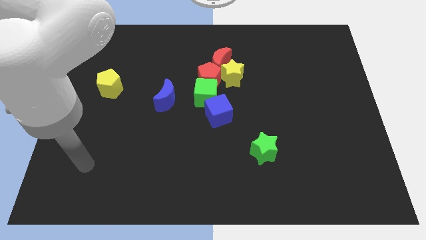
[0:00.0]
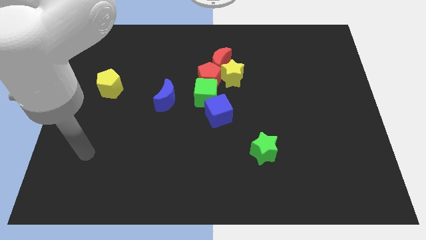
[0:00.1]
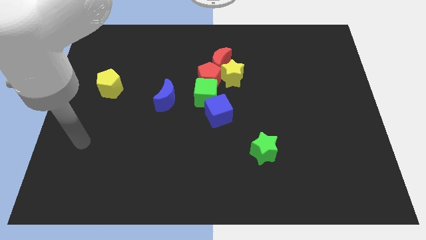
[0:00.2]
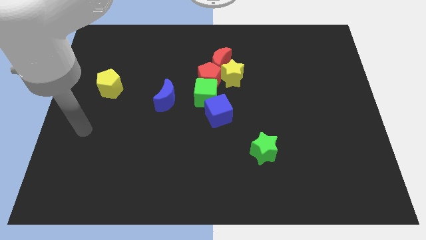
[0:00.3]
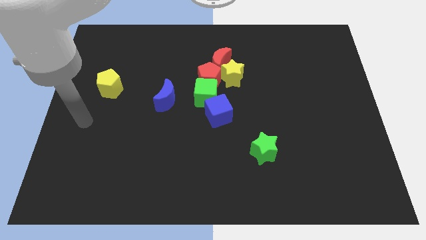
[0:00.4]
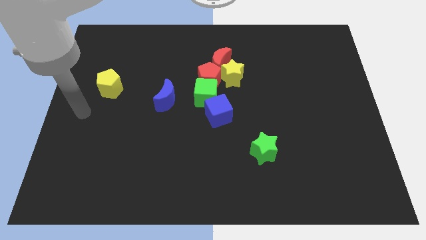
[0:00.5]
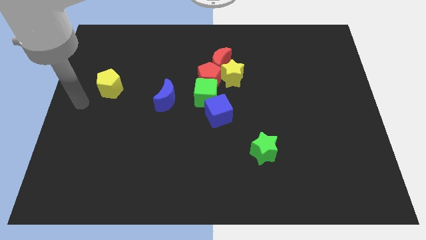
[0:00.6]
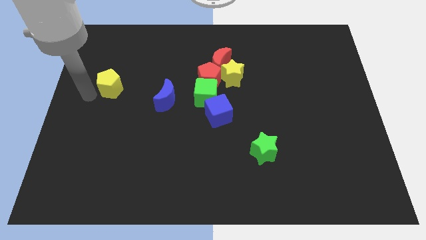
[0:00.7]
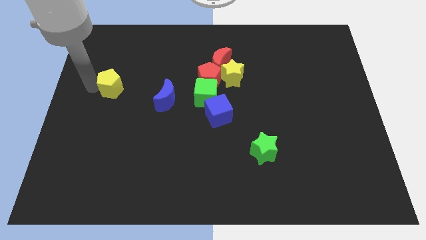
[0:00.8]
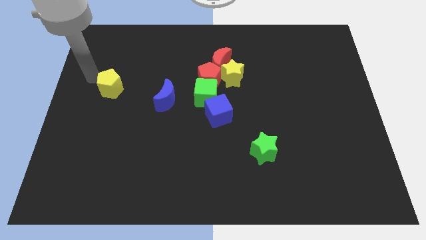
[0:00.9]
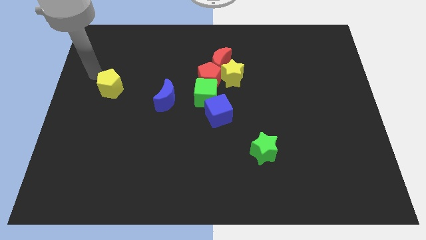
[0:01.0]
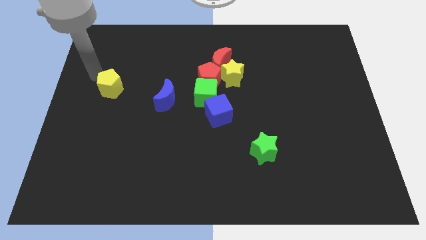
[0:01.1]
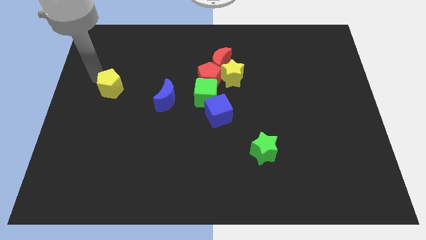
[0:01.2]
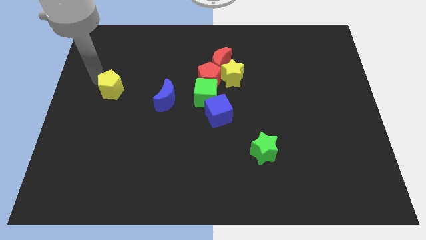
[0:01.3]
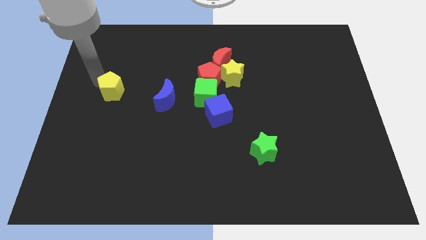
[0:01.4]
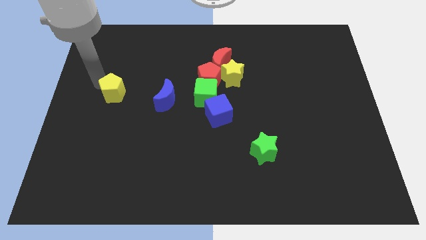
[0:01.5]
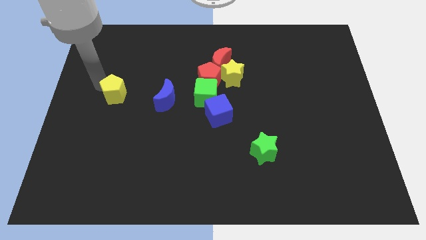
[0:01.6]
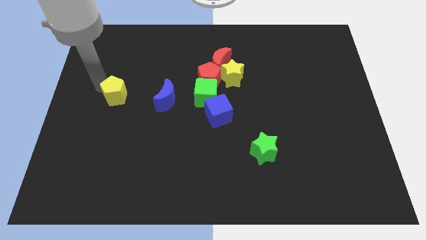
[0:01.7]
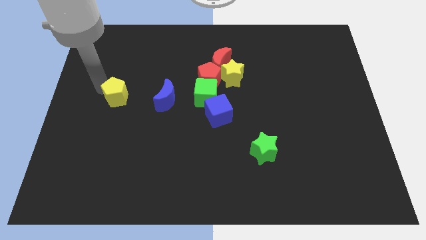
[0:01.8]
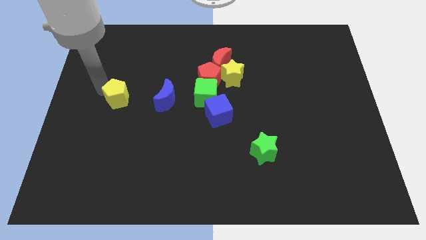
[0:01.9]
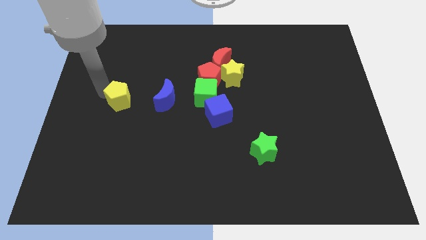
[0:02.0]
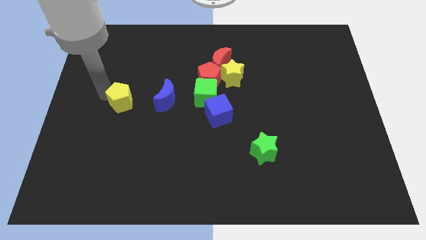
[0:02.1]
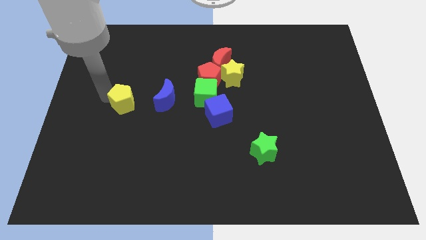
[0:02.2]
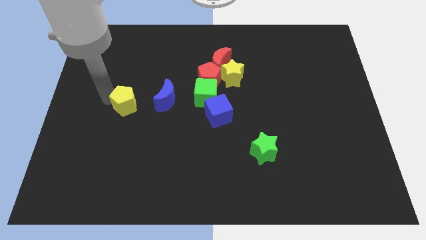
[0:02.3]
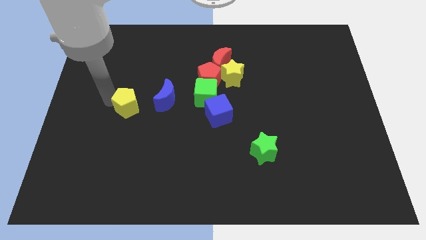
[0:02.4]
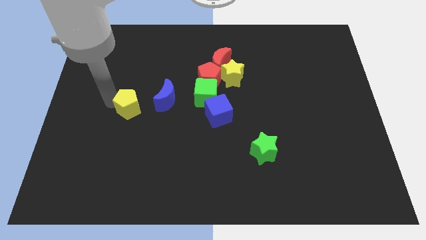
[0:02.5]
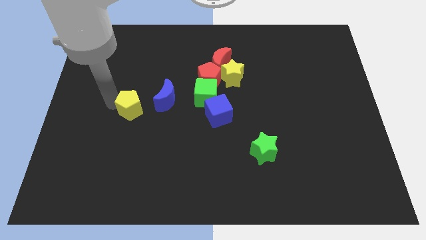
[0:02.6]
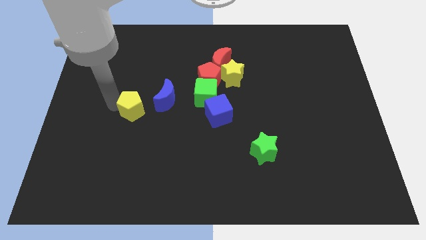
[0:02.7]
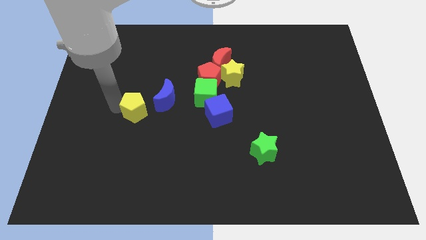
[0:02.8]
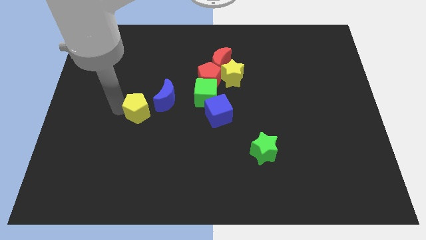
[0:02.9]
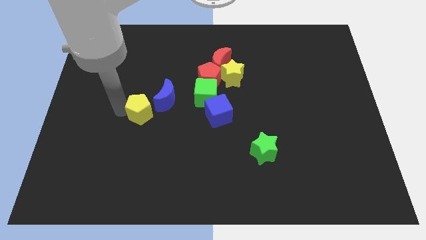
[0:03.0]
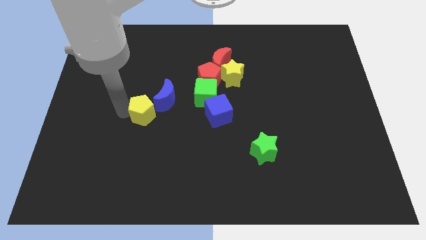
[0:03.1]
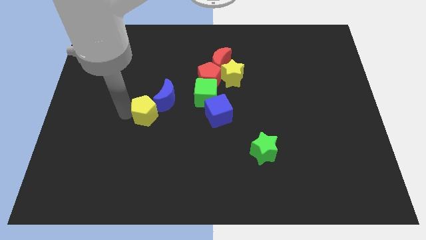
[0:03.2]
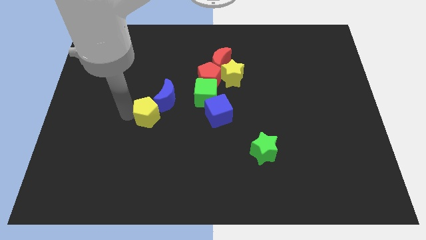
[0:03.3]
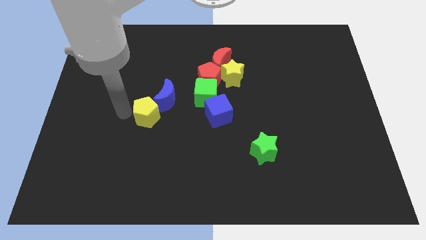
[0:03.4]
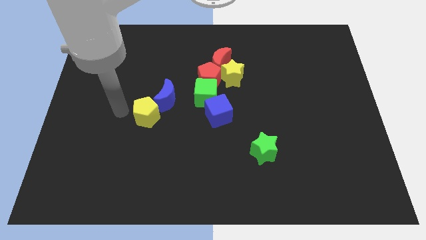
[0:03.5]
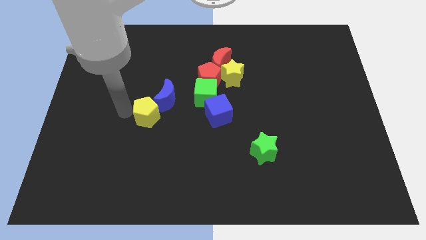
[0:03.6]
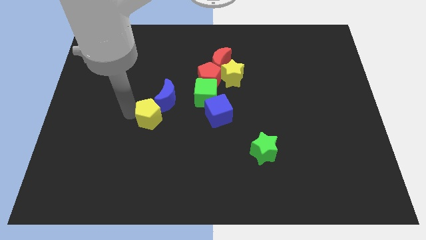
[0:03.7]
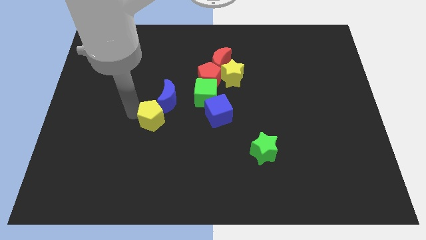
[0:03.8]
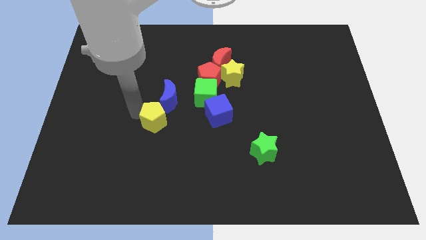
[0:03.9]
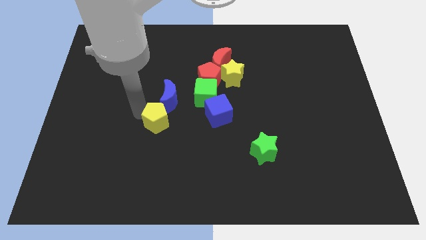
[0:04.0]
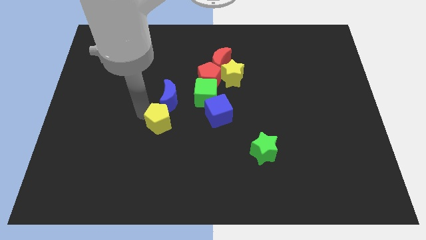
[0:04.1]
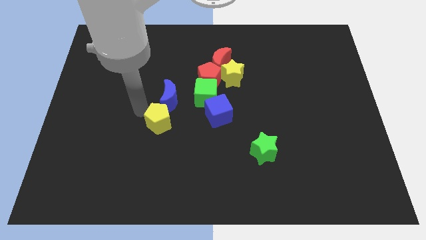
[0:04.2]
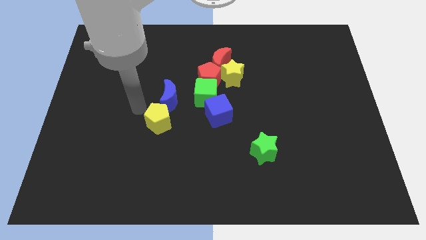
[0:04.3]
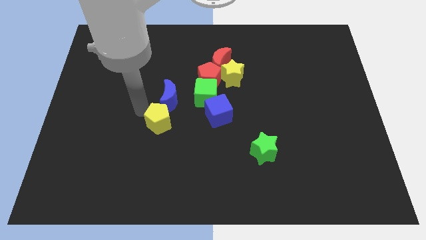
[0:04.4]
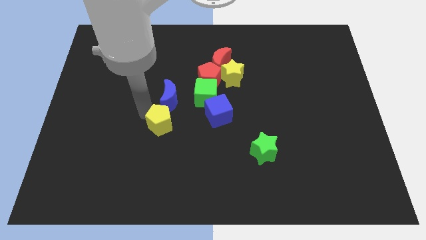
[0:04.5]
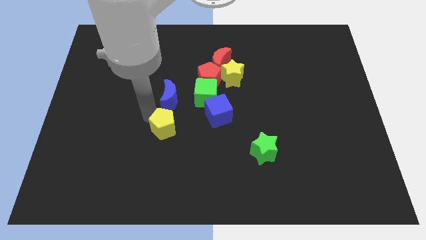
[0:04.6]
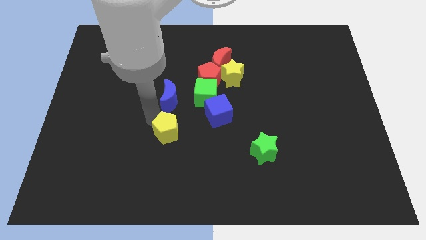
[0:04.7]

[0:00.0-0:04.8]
push the yellow pentagon downwards and right

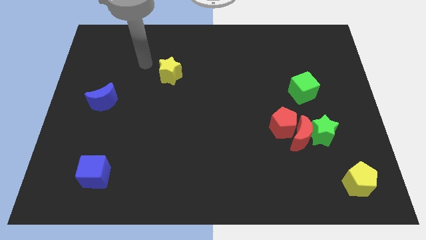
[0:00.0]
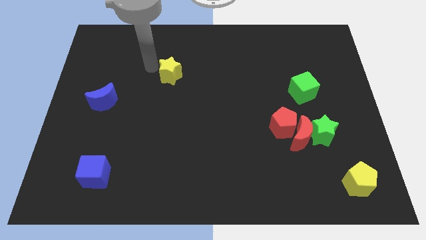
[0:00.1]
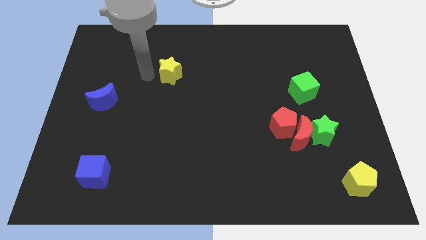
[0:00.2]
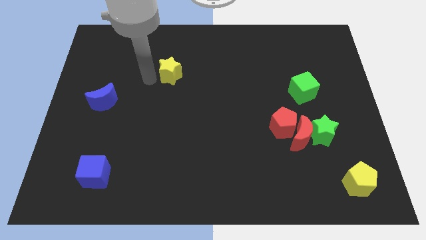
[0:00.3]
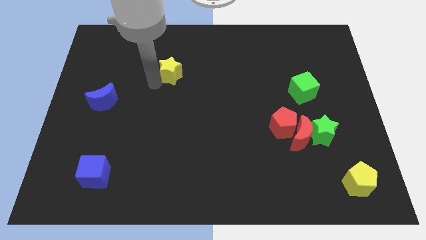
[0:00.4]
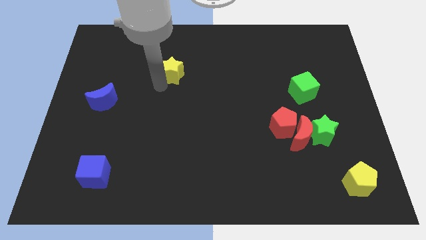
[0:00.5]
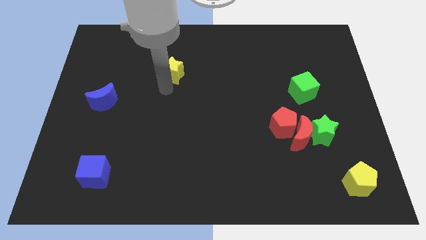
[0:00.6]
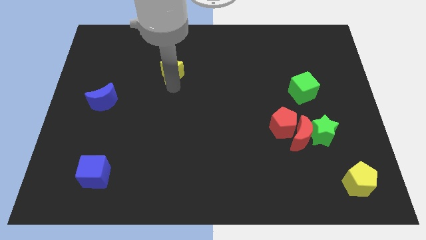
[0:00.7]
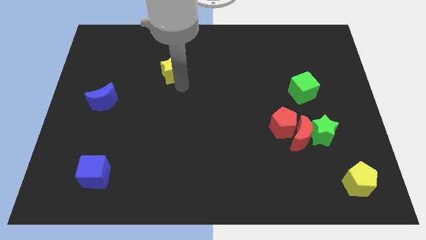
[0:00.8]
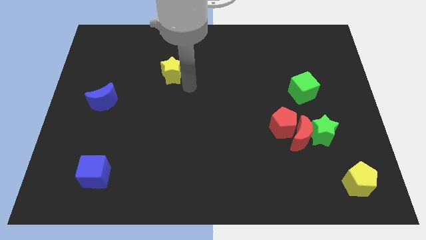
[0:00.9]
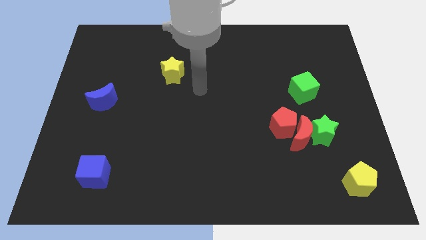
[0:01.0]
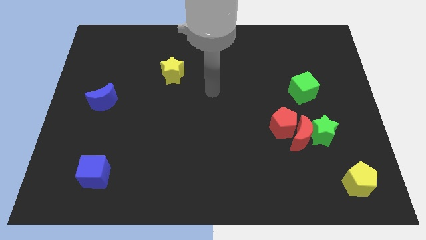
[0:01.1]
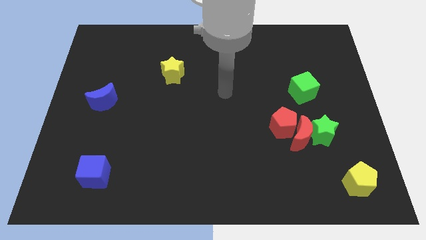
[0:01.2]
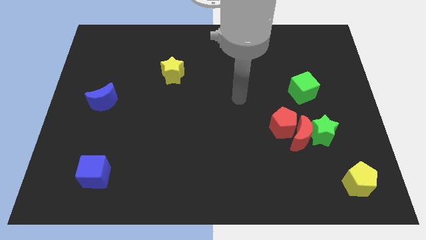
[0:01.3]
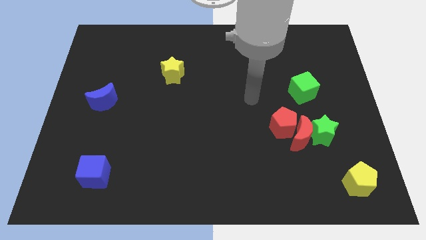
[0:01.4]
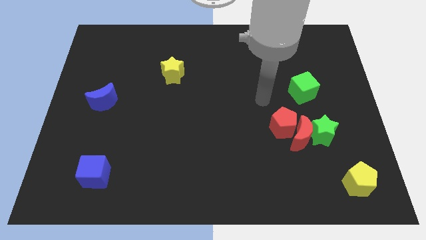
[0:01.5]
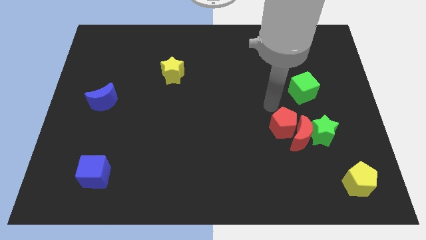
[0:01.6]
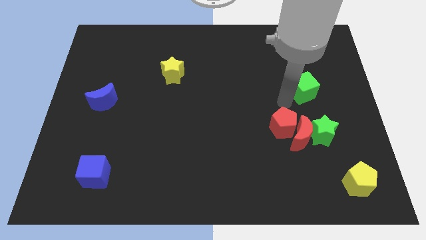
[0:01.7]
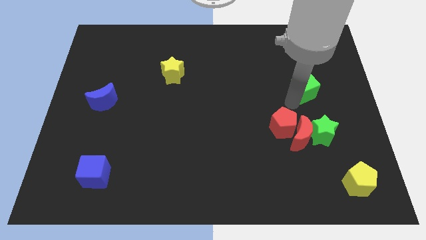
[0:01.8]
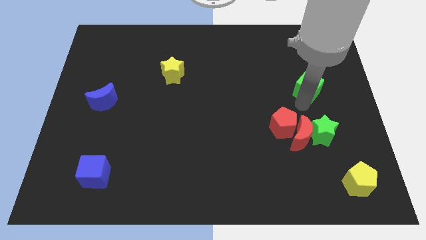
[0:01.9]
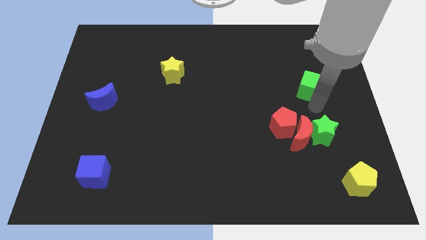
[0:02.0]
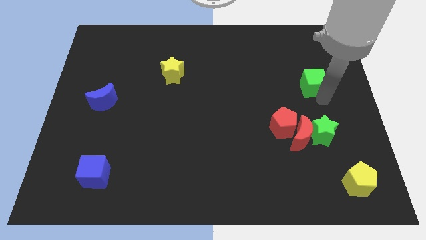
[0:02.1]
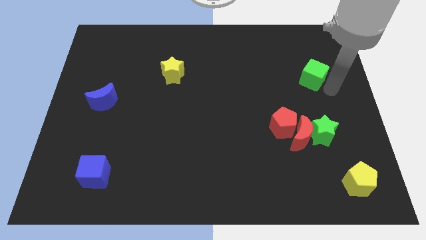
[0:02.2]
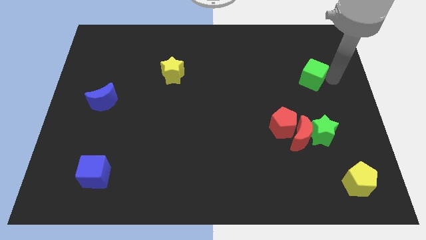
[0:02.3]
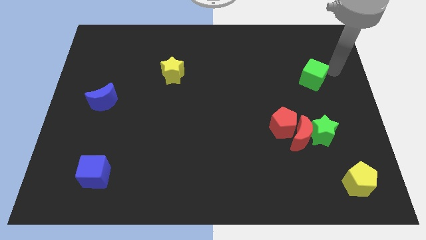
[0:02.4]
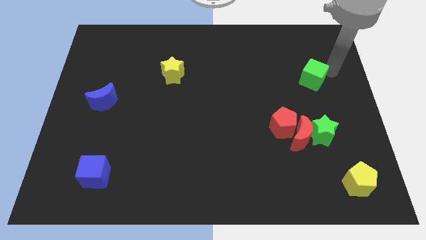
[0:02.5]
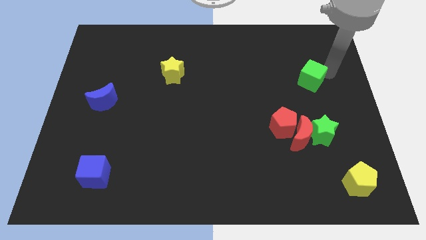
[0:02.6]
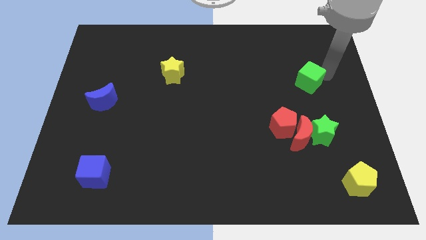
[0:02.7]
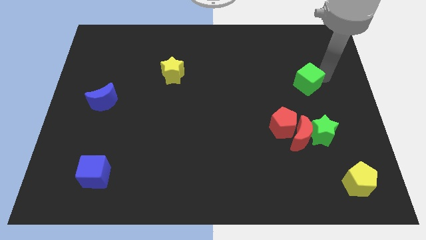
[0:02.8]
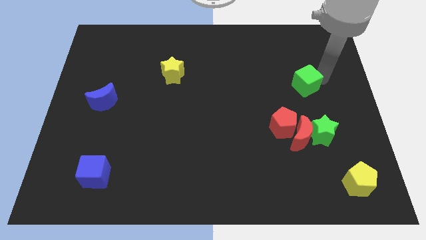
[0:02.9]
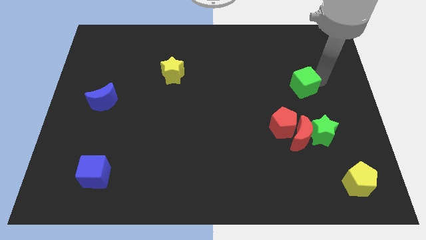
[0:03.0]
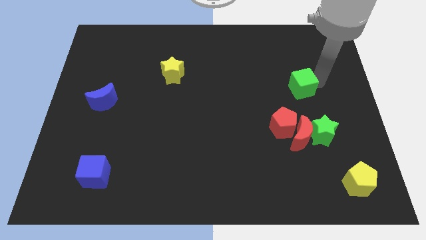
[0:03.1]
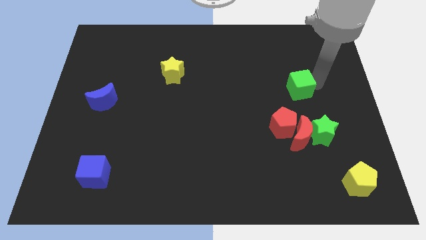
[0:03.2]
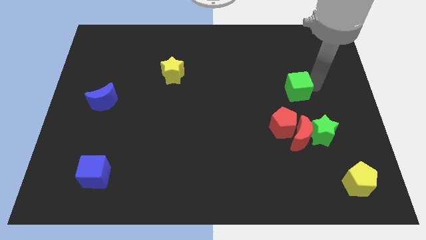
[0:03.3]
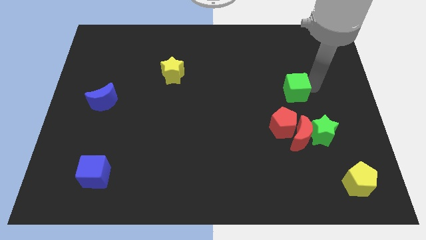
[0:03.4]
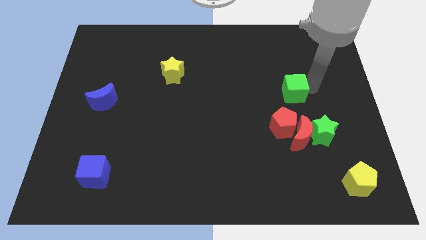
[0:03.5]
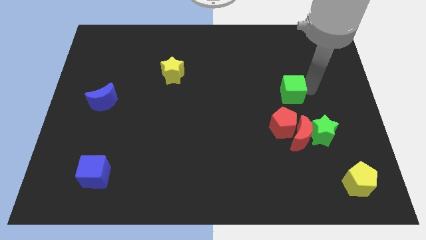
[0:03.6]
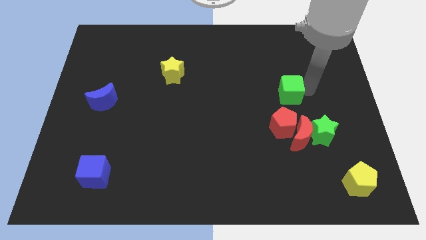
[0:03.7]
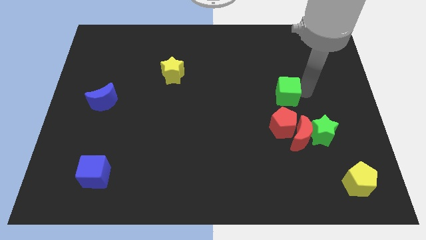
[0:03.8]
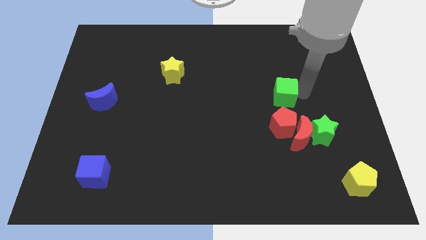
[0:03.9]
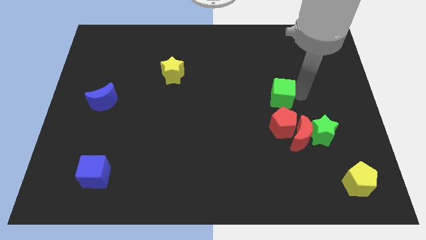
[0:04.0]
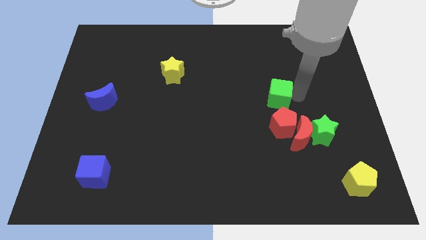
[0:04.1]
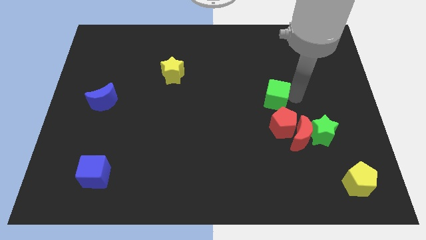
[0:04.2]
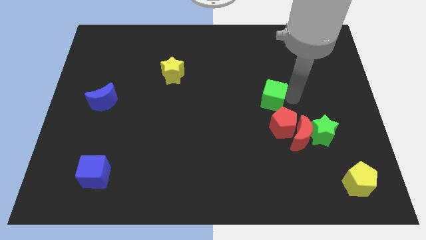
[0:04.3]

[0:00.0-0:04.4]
push the green cube left a bit
